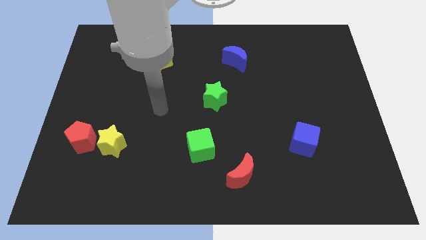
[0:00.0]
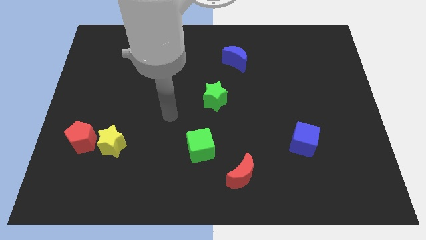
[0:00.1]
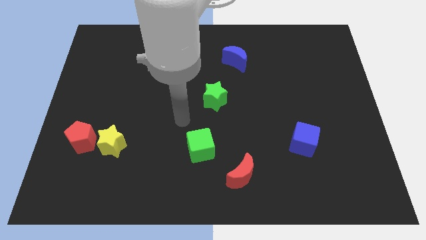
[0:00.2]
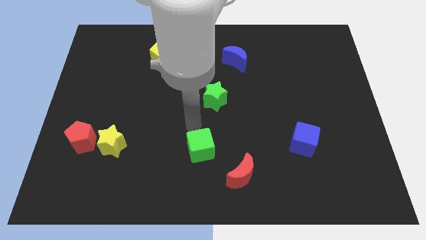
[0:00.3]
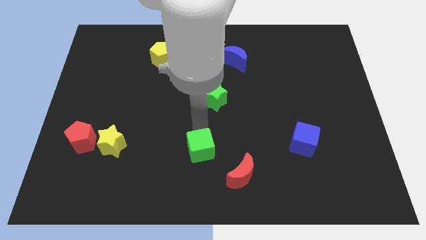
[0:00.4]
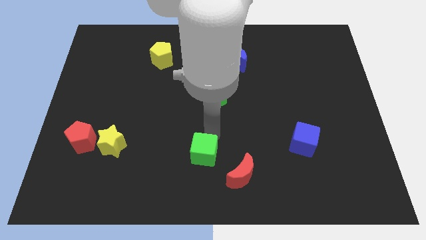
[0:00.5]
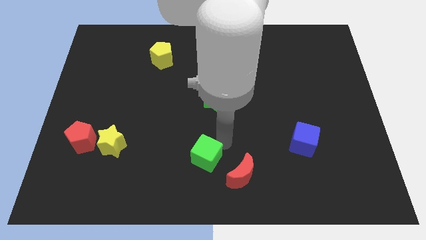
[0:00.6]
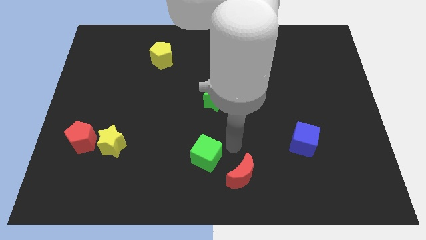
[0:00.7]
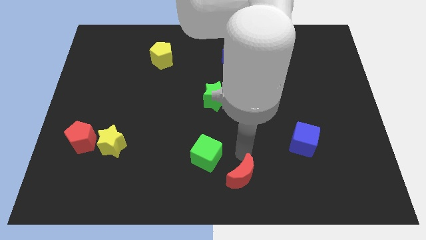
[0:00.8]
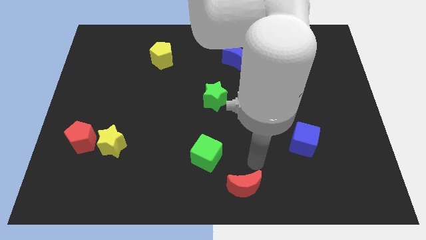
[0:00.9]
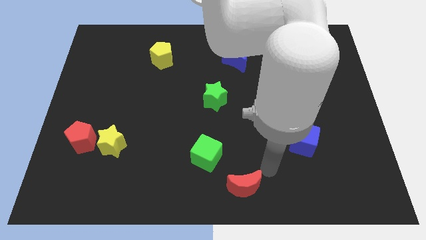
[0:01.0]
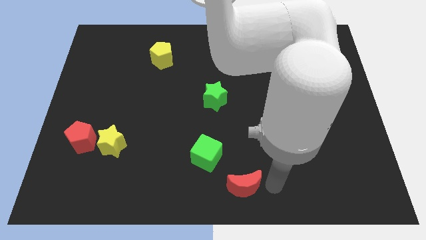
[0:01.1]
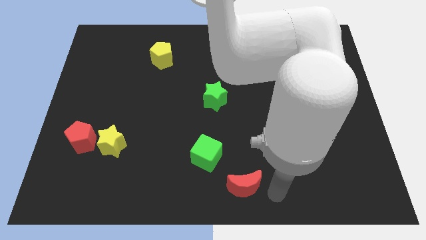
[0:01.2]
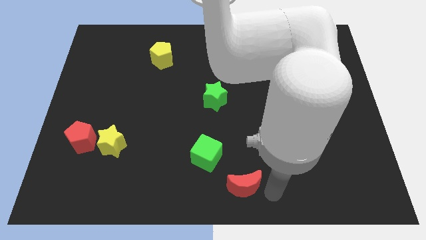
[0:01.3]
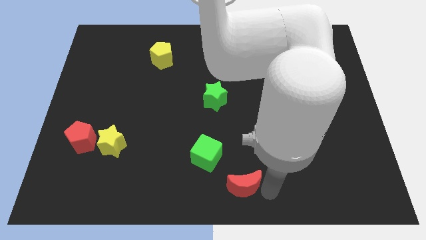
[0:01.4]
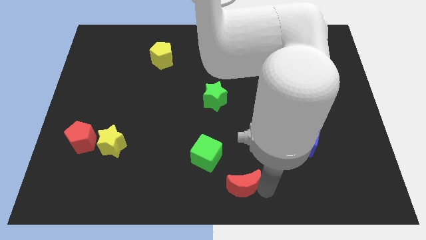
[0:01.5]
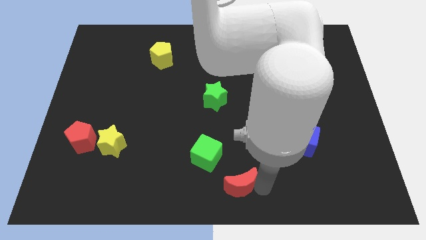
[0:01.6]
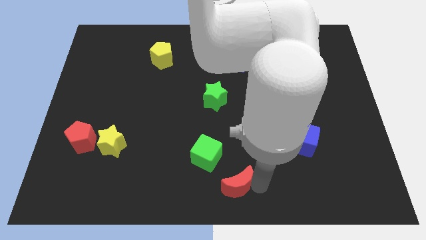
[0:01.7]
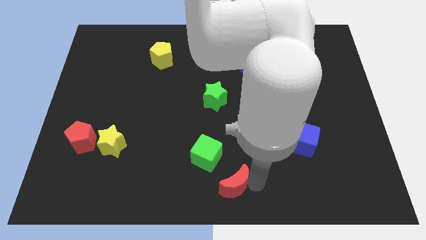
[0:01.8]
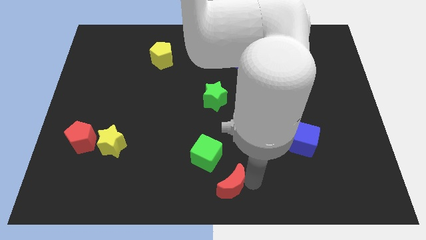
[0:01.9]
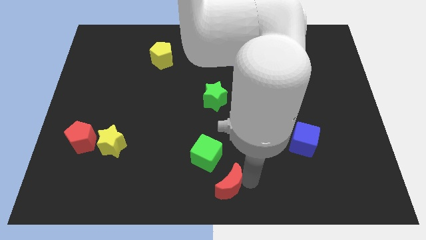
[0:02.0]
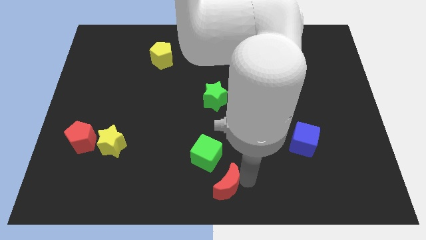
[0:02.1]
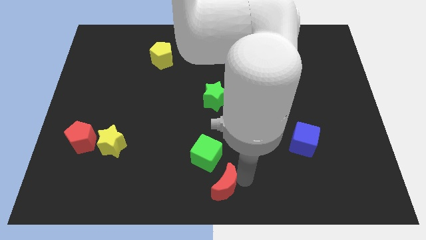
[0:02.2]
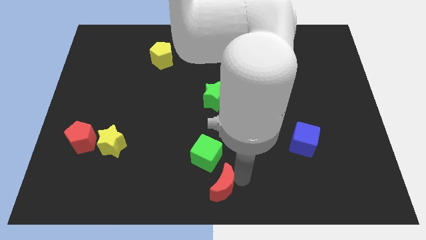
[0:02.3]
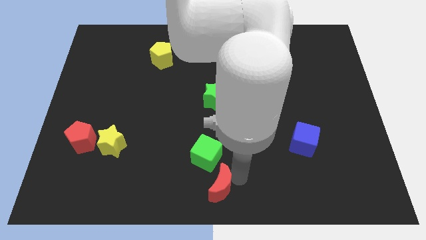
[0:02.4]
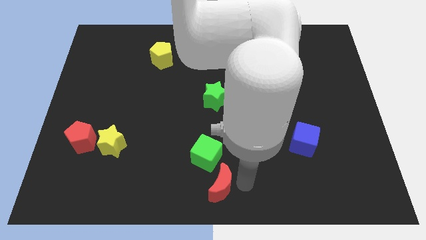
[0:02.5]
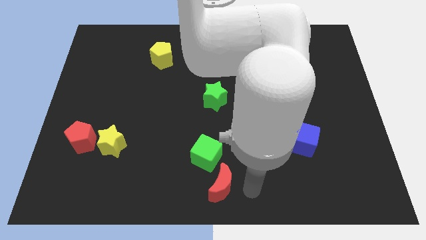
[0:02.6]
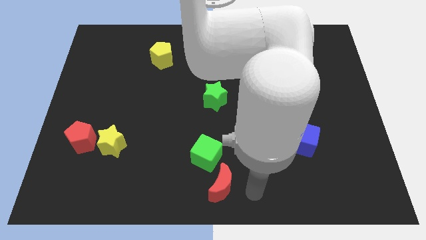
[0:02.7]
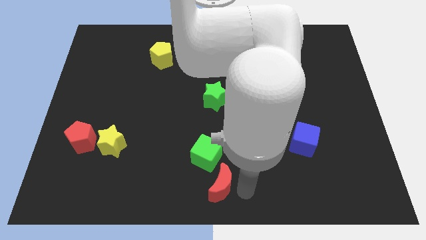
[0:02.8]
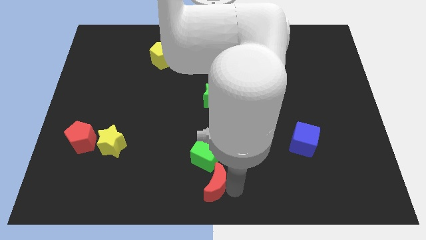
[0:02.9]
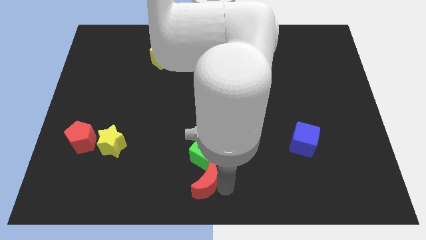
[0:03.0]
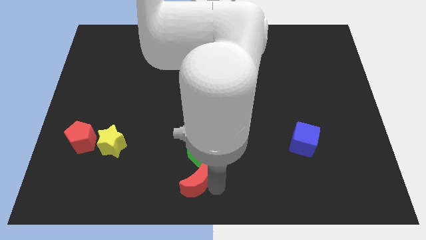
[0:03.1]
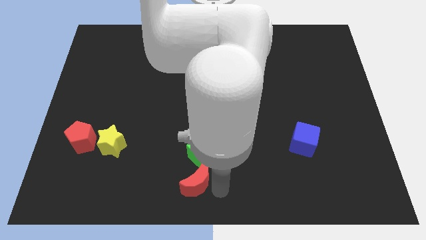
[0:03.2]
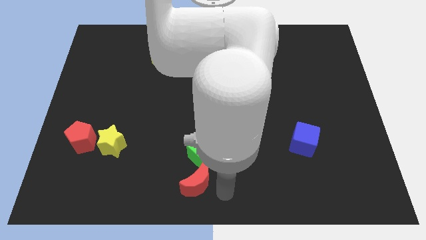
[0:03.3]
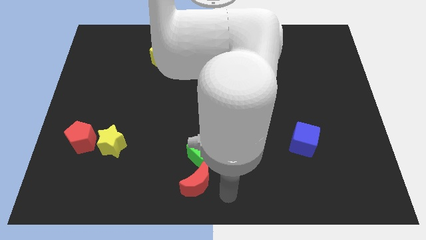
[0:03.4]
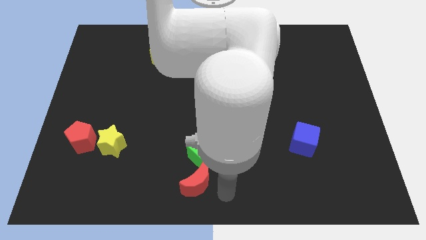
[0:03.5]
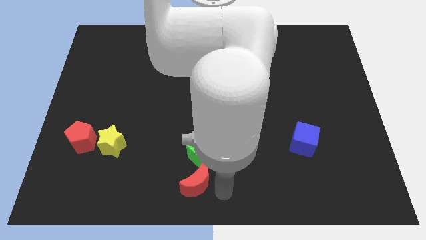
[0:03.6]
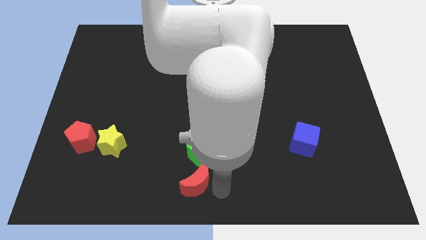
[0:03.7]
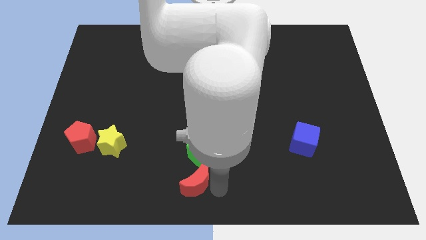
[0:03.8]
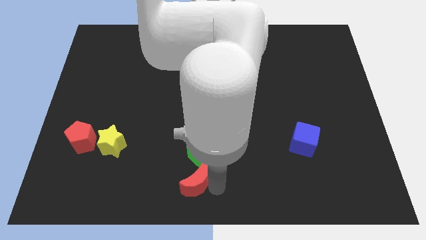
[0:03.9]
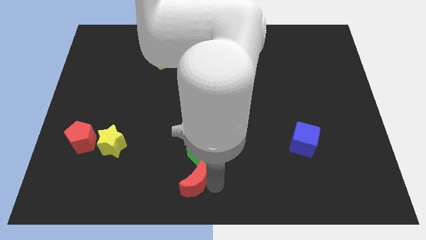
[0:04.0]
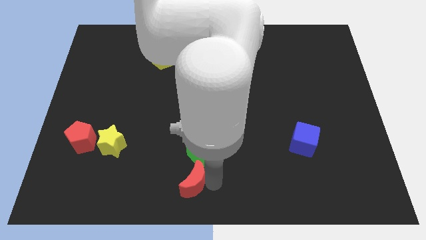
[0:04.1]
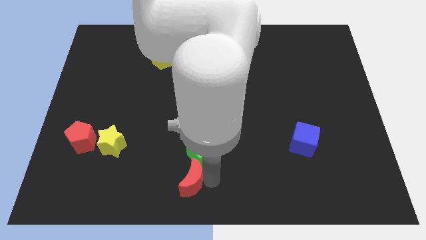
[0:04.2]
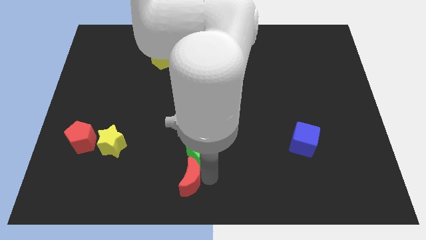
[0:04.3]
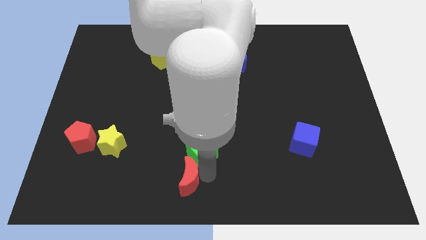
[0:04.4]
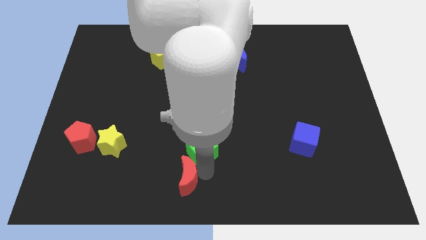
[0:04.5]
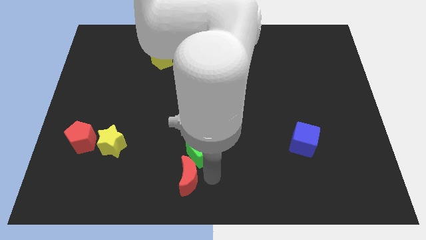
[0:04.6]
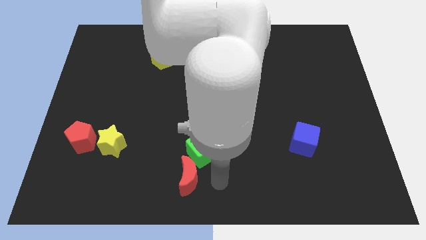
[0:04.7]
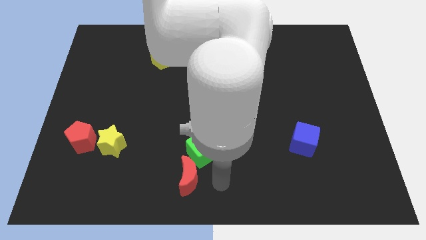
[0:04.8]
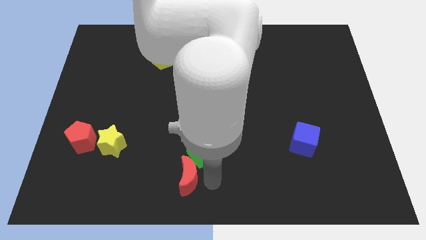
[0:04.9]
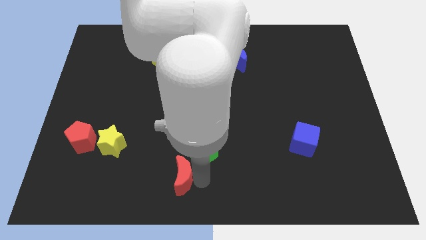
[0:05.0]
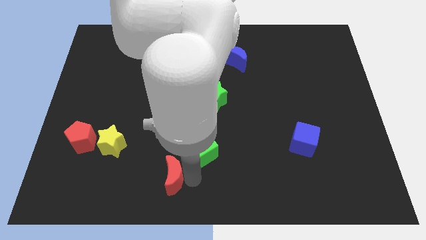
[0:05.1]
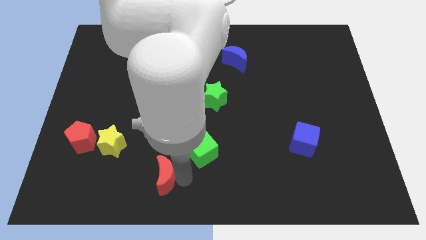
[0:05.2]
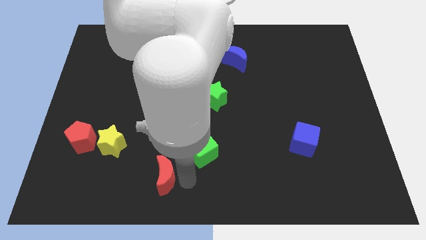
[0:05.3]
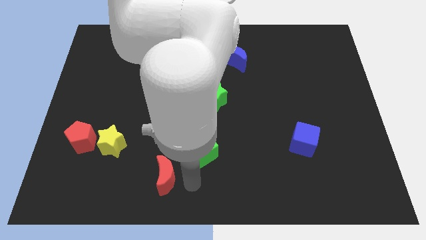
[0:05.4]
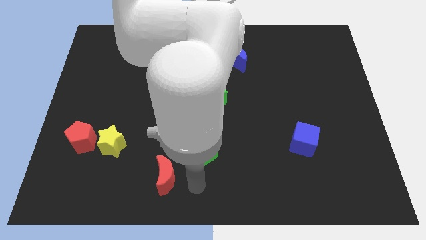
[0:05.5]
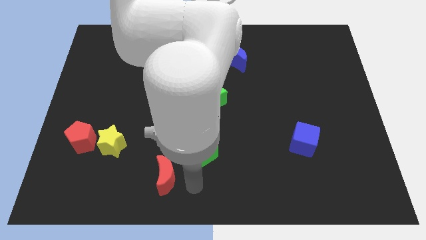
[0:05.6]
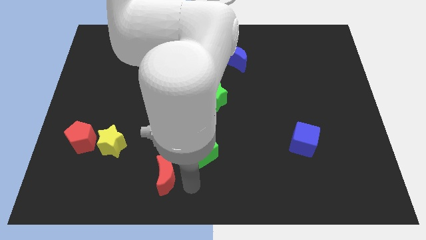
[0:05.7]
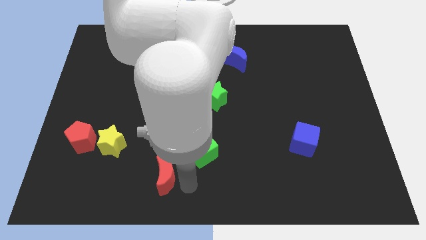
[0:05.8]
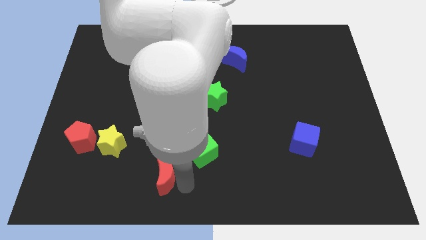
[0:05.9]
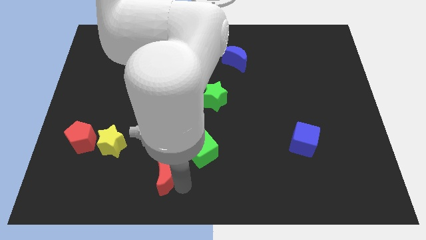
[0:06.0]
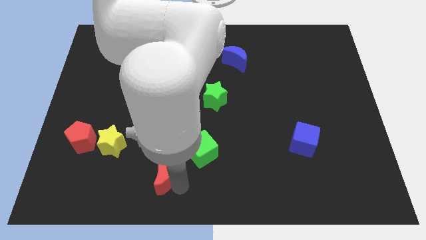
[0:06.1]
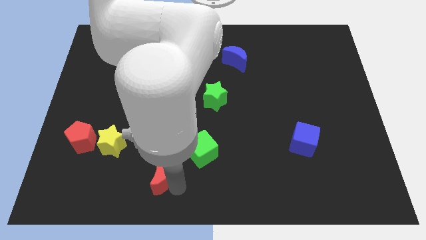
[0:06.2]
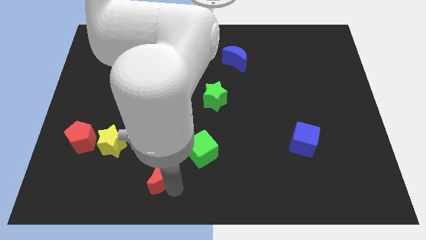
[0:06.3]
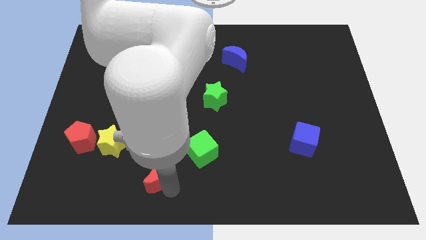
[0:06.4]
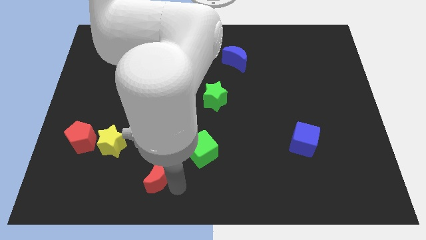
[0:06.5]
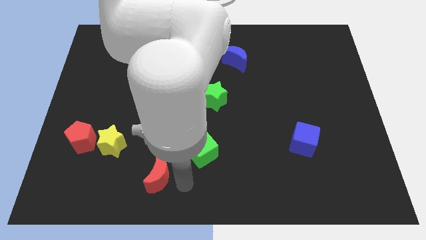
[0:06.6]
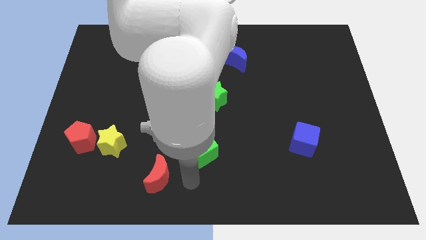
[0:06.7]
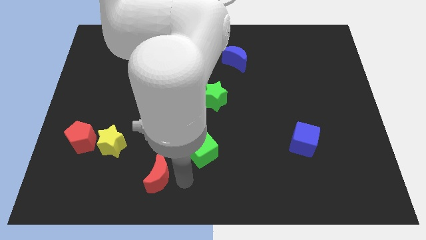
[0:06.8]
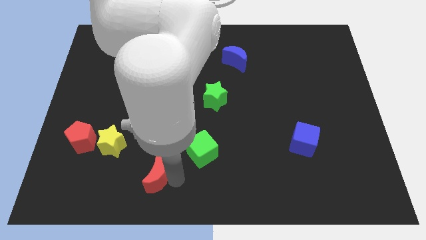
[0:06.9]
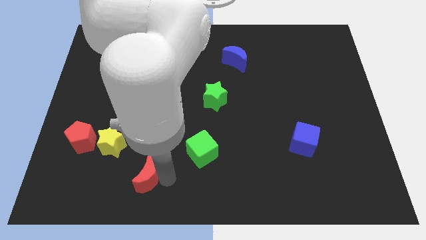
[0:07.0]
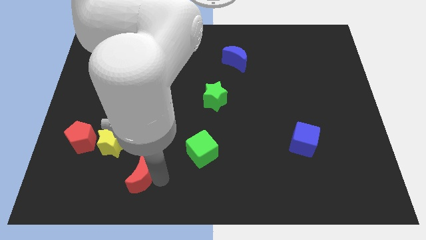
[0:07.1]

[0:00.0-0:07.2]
slide the red moon left

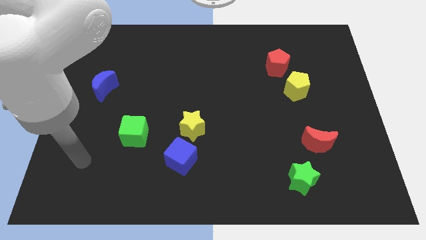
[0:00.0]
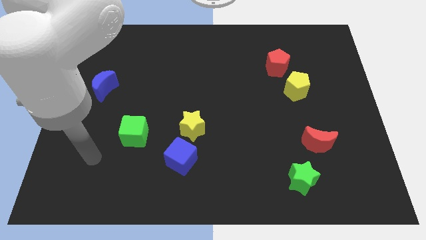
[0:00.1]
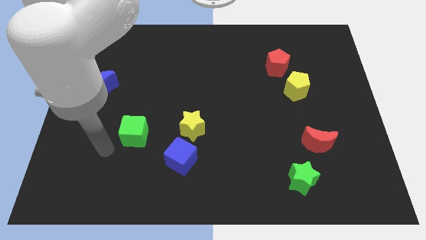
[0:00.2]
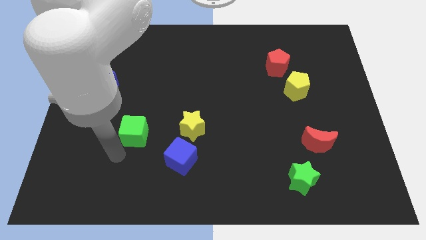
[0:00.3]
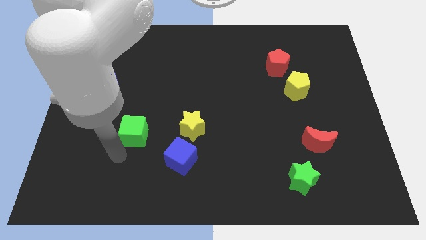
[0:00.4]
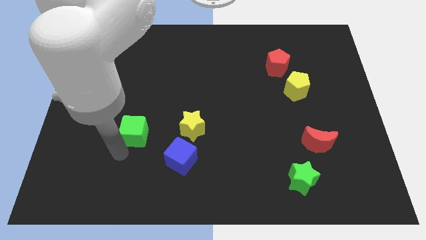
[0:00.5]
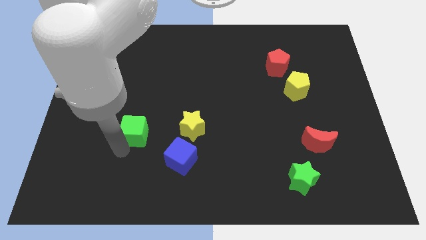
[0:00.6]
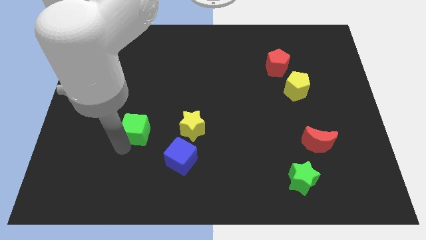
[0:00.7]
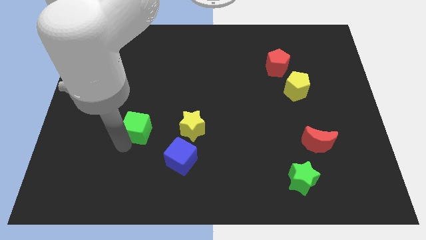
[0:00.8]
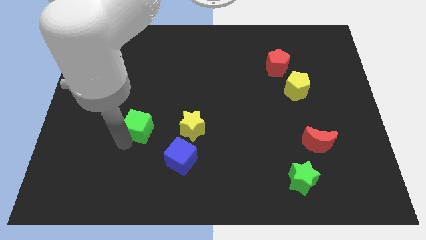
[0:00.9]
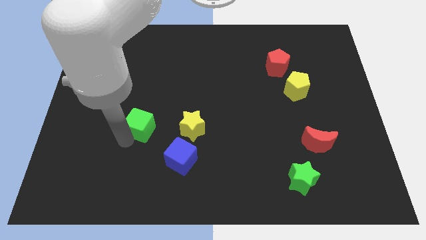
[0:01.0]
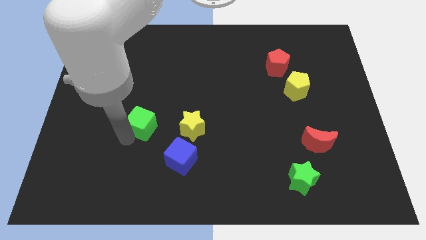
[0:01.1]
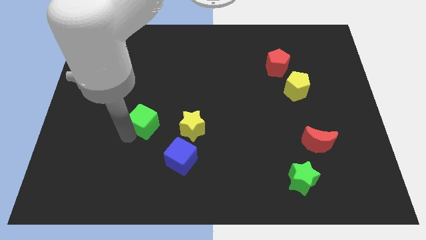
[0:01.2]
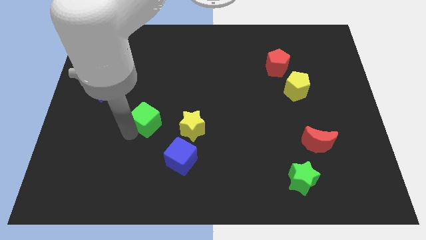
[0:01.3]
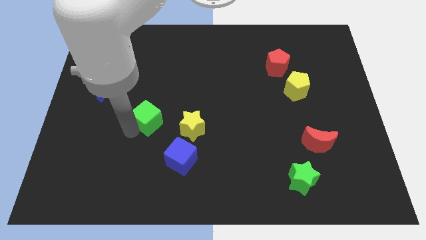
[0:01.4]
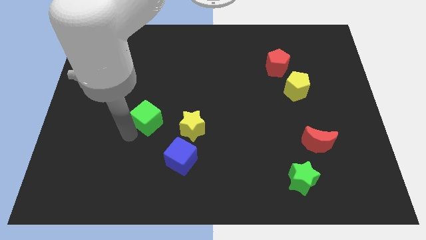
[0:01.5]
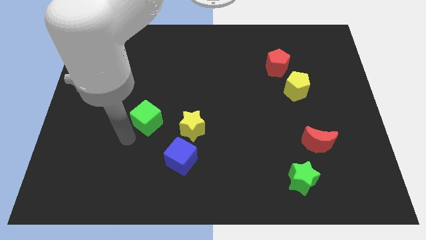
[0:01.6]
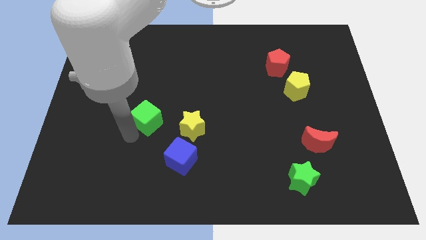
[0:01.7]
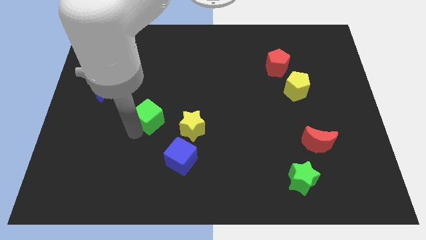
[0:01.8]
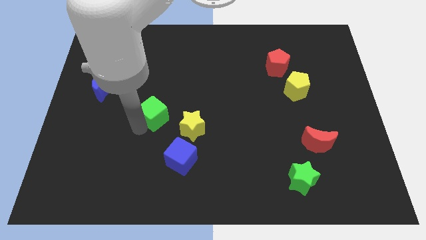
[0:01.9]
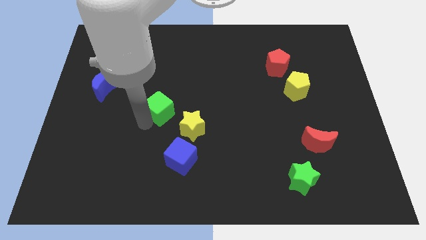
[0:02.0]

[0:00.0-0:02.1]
move the green cube up and to the right a little bit
